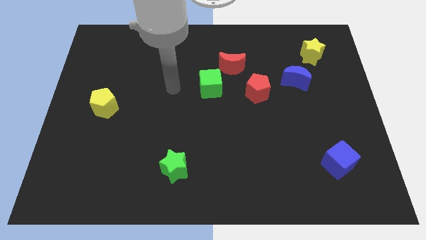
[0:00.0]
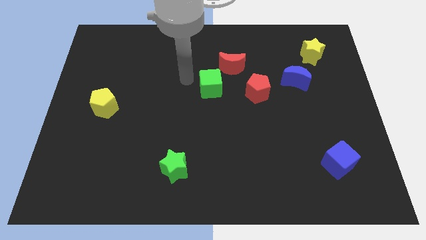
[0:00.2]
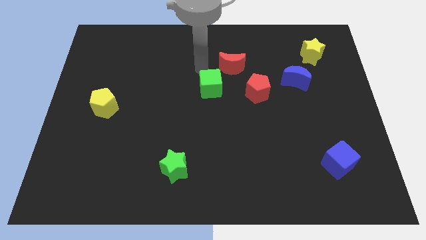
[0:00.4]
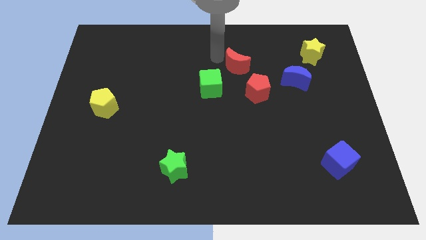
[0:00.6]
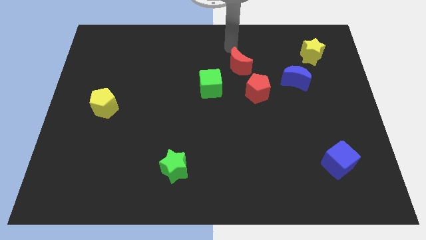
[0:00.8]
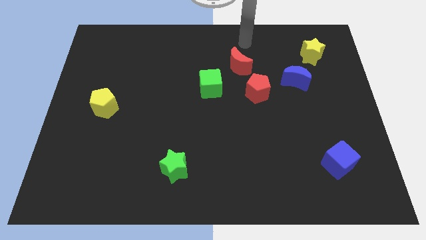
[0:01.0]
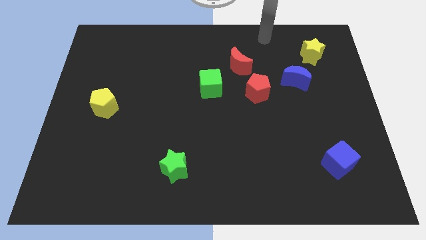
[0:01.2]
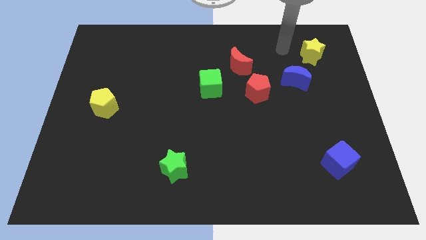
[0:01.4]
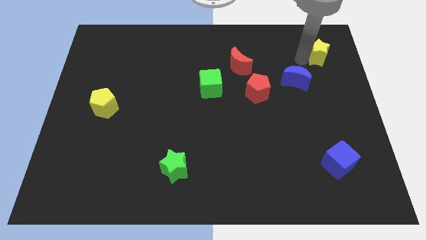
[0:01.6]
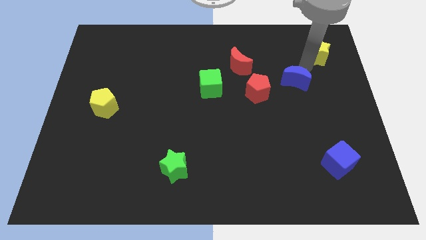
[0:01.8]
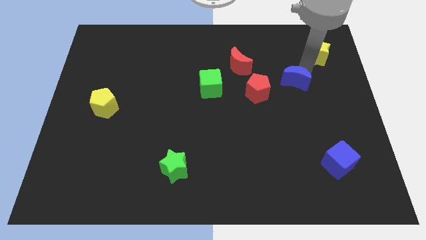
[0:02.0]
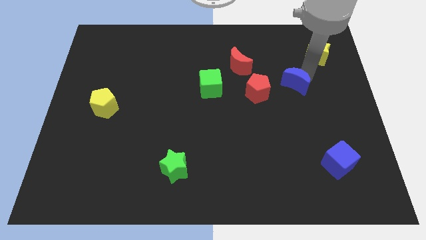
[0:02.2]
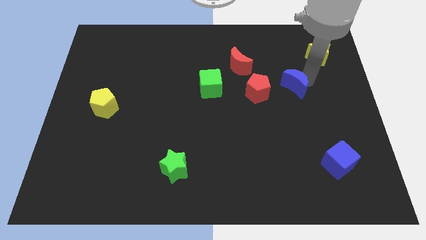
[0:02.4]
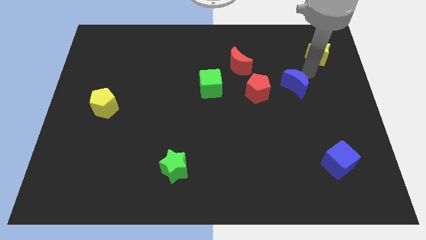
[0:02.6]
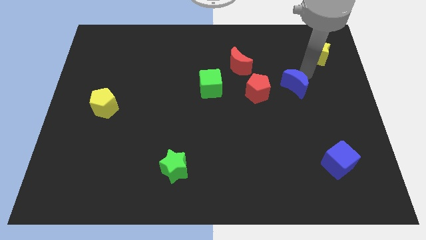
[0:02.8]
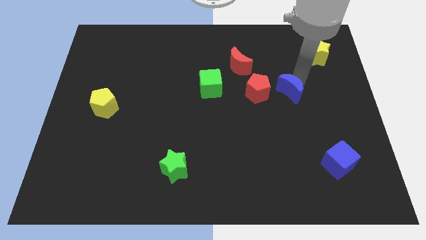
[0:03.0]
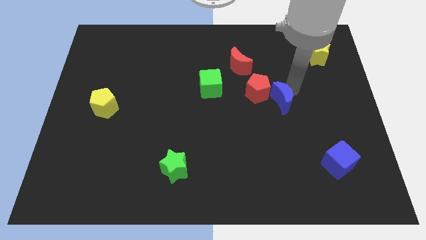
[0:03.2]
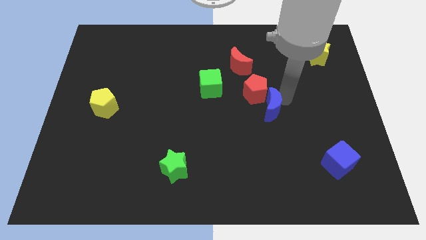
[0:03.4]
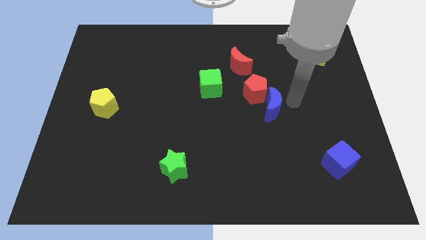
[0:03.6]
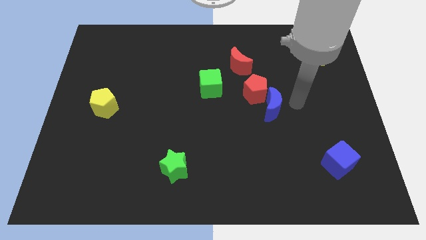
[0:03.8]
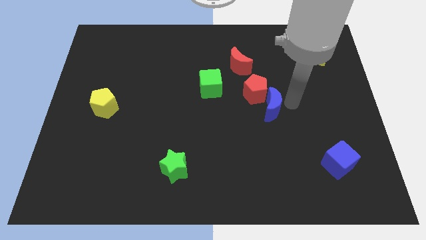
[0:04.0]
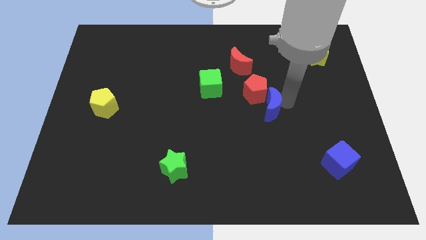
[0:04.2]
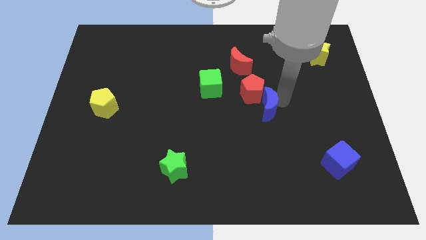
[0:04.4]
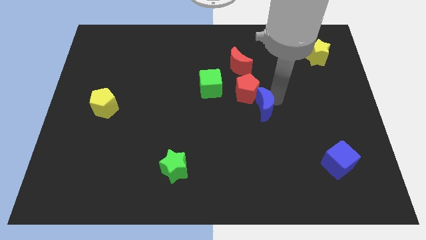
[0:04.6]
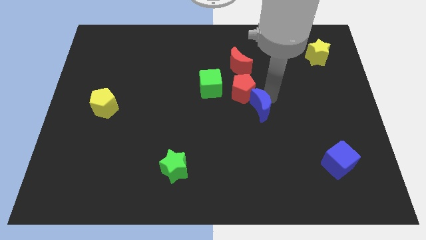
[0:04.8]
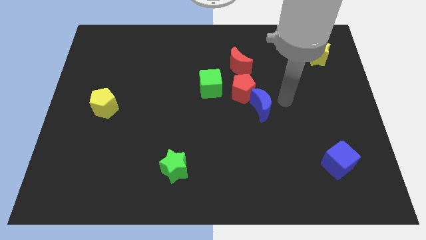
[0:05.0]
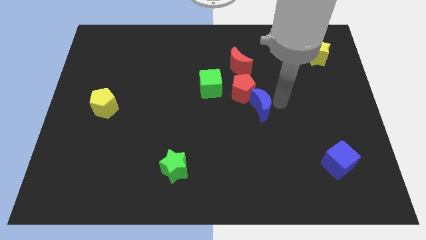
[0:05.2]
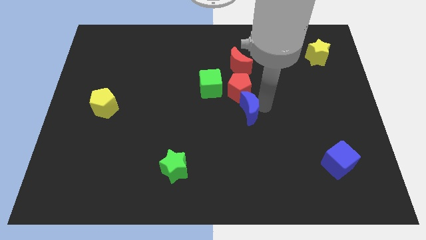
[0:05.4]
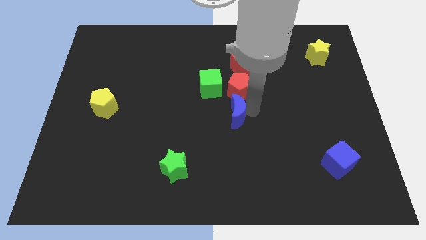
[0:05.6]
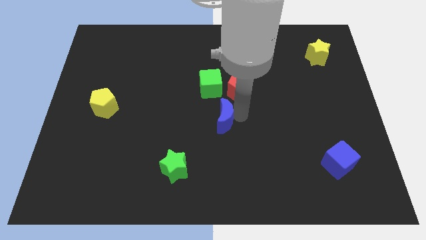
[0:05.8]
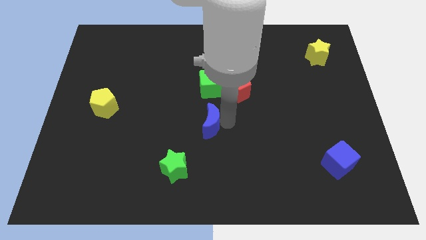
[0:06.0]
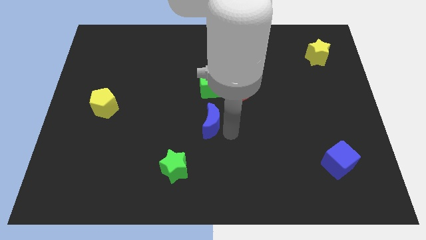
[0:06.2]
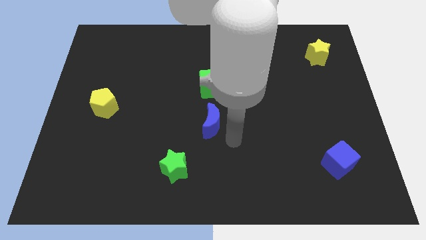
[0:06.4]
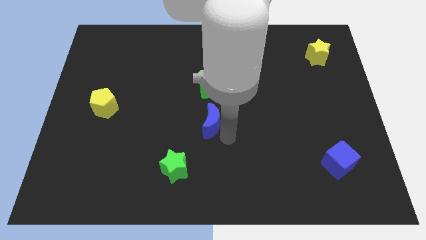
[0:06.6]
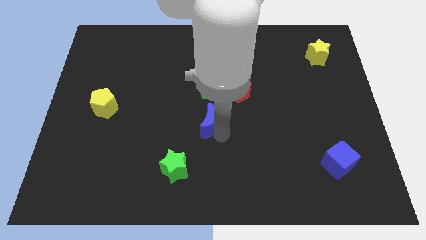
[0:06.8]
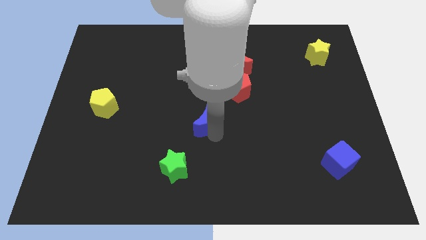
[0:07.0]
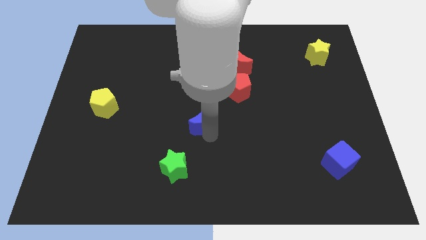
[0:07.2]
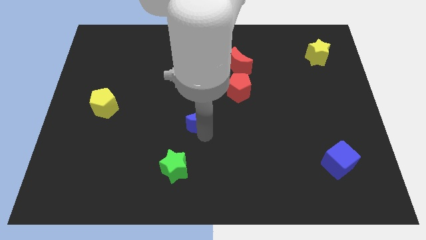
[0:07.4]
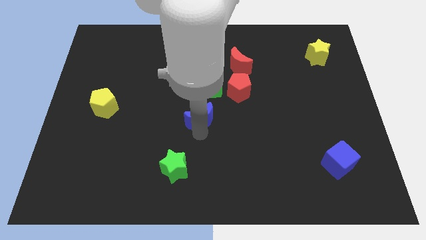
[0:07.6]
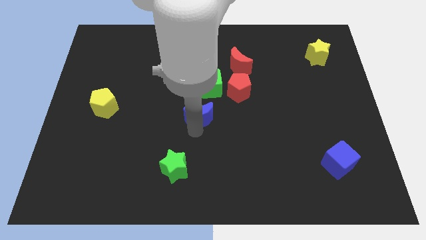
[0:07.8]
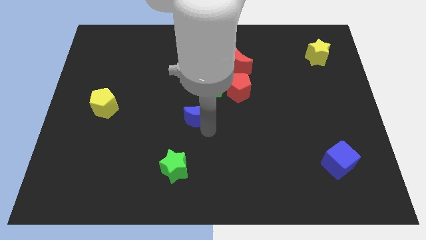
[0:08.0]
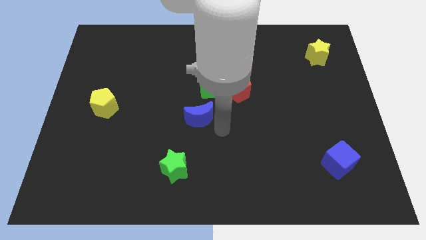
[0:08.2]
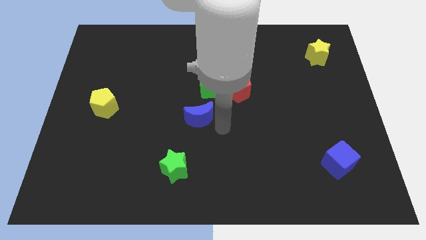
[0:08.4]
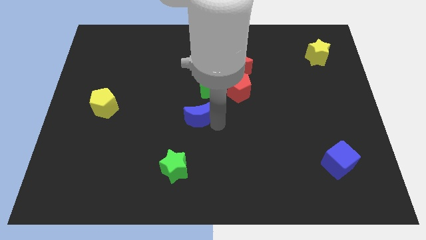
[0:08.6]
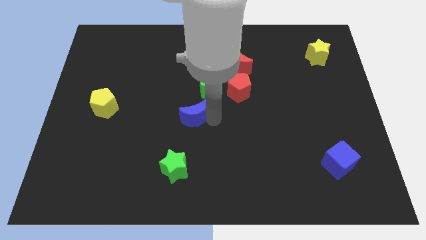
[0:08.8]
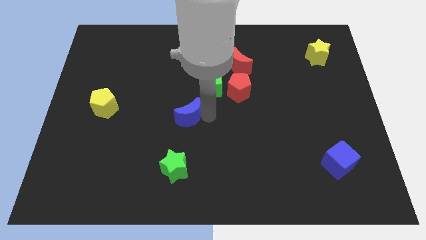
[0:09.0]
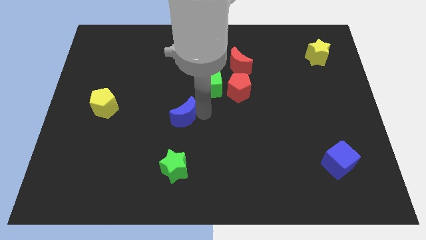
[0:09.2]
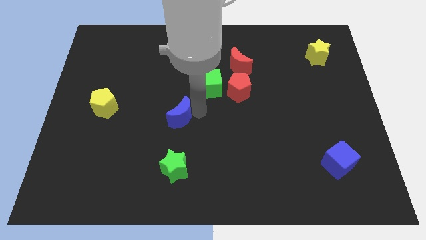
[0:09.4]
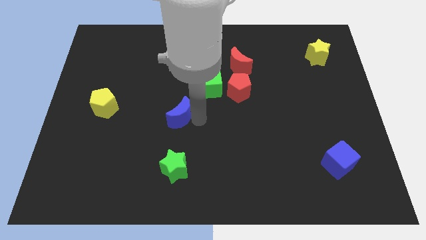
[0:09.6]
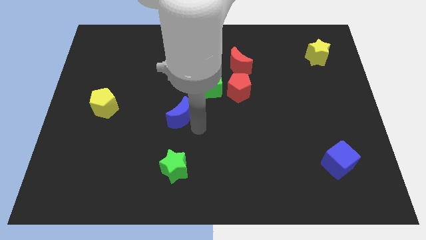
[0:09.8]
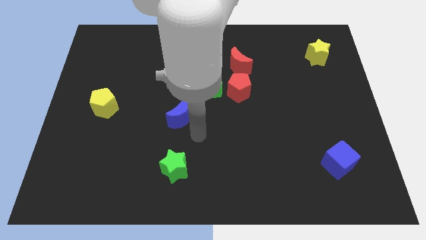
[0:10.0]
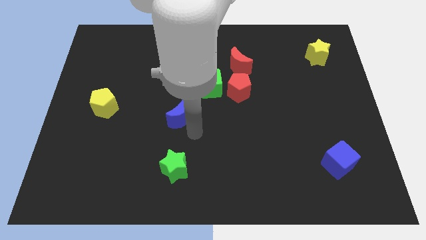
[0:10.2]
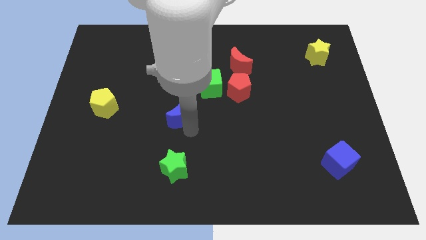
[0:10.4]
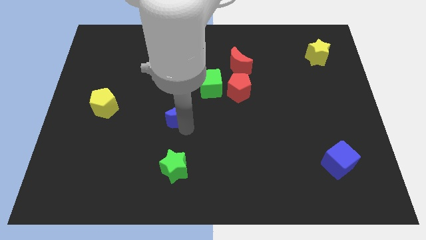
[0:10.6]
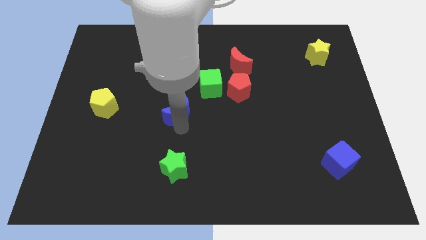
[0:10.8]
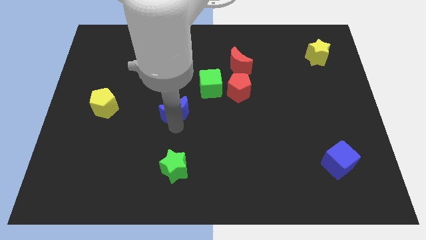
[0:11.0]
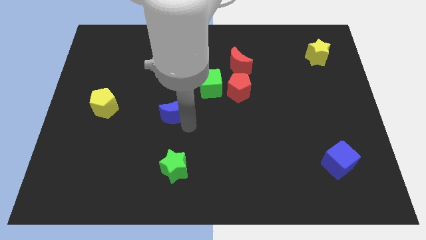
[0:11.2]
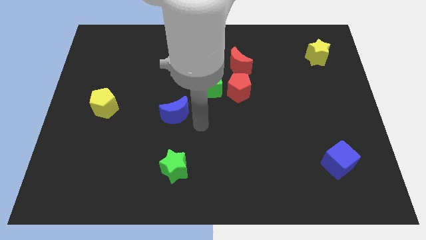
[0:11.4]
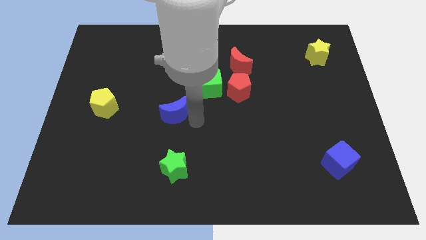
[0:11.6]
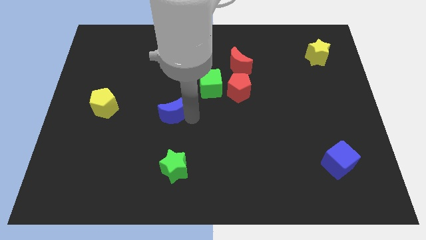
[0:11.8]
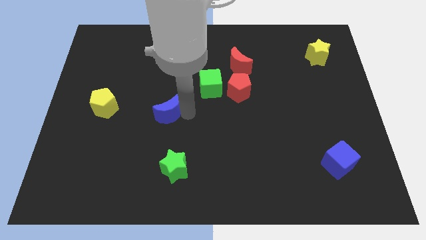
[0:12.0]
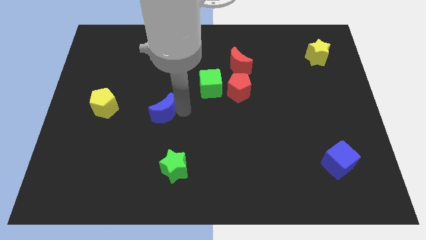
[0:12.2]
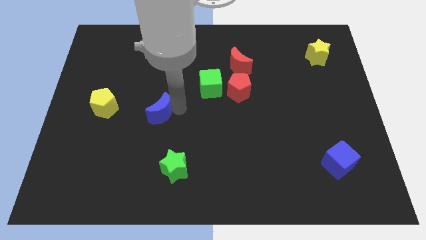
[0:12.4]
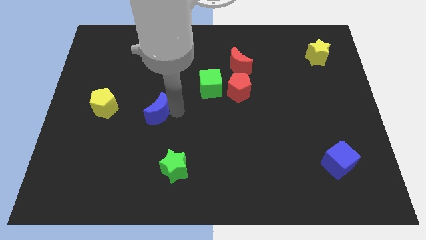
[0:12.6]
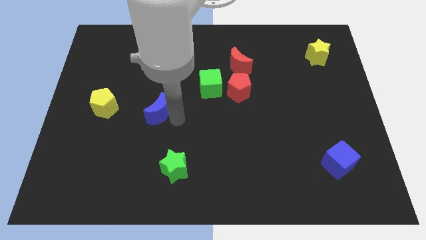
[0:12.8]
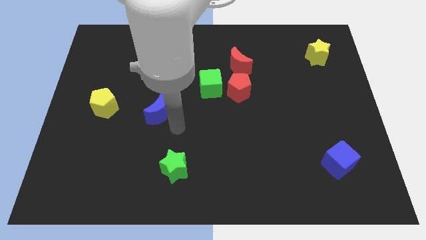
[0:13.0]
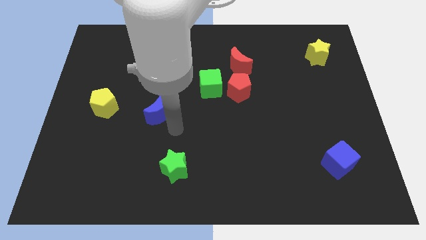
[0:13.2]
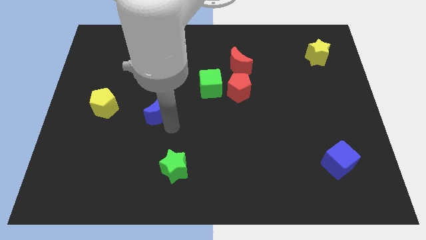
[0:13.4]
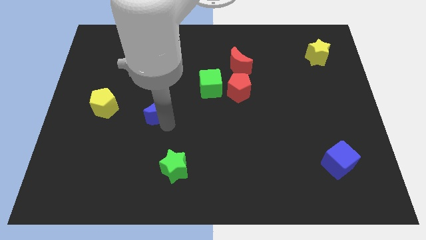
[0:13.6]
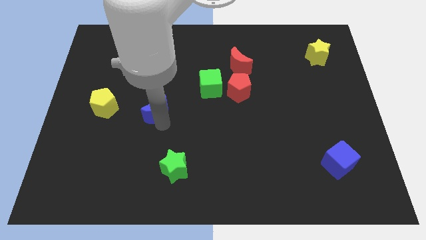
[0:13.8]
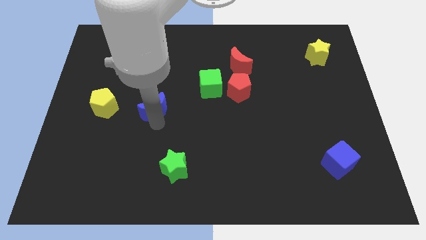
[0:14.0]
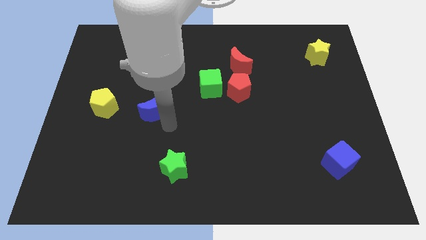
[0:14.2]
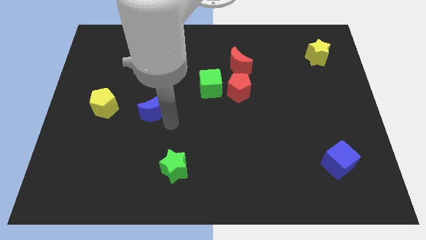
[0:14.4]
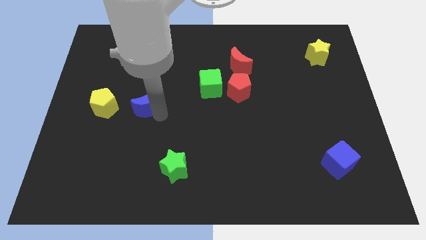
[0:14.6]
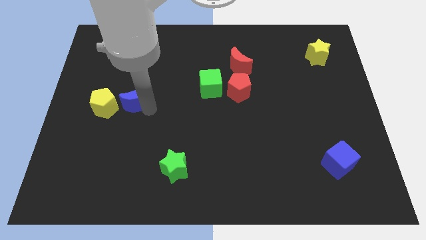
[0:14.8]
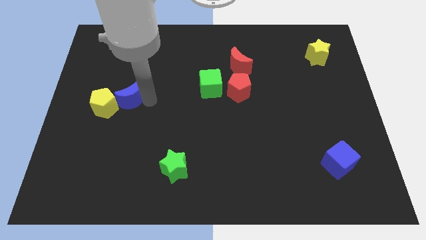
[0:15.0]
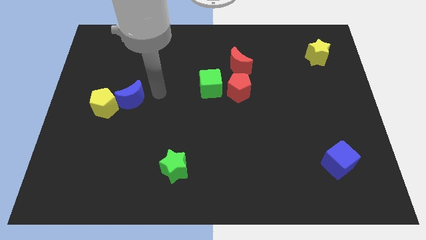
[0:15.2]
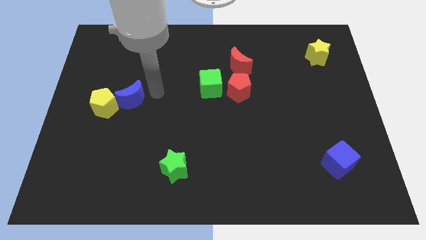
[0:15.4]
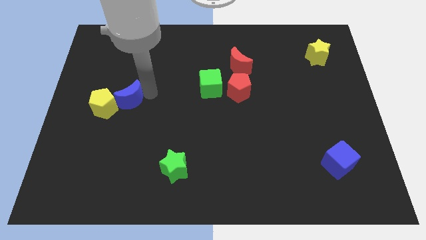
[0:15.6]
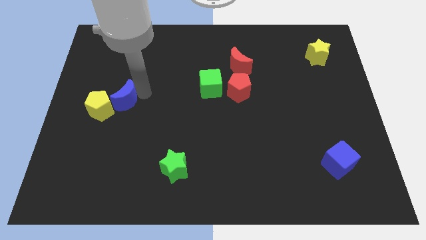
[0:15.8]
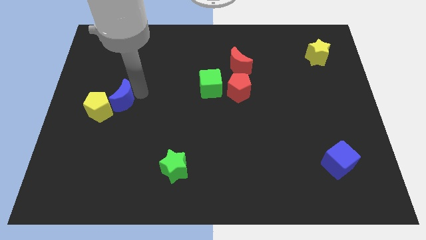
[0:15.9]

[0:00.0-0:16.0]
slide the blue moon to the yellow pentagon
